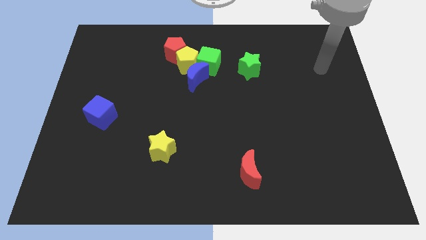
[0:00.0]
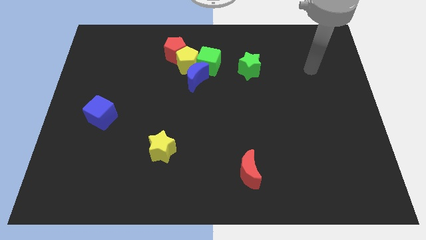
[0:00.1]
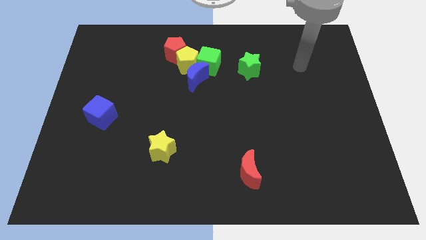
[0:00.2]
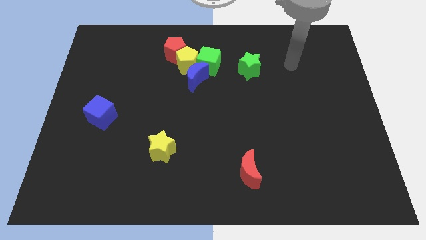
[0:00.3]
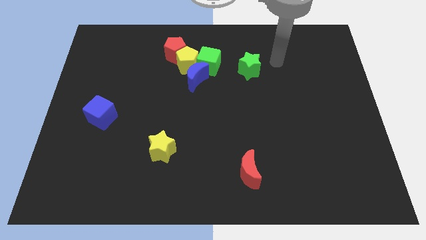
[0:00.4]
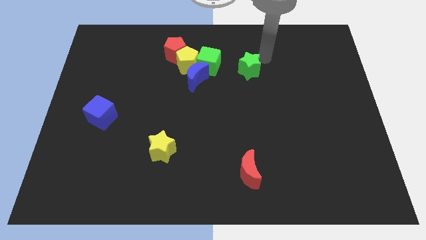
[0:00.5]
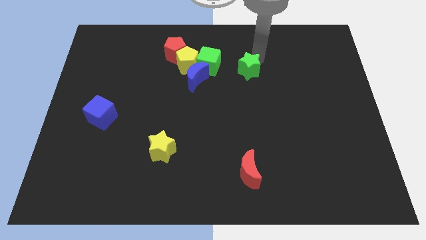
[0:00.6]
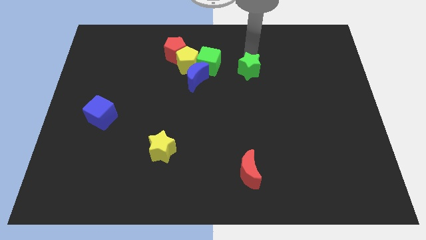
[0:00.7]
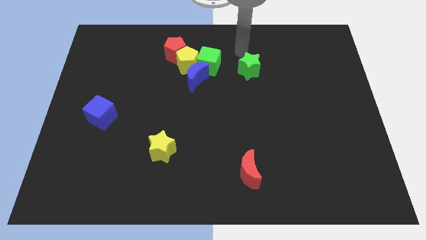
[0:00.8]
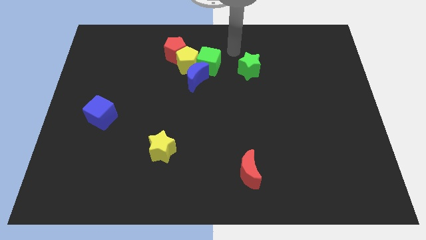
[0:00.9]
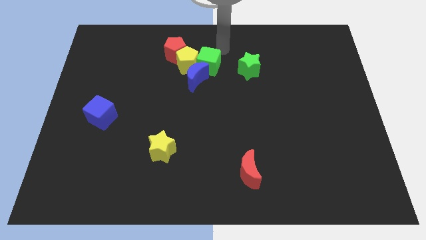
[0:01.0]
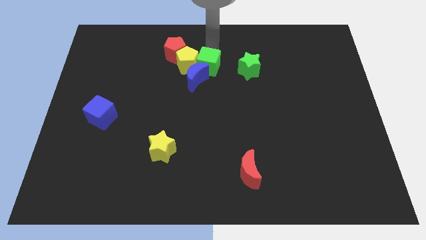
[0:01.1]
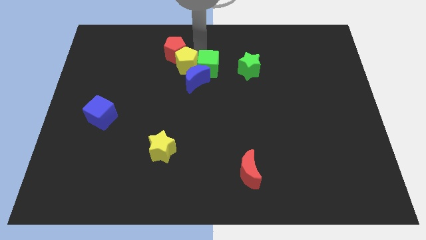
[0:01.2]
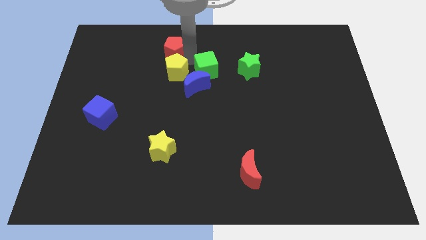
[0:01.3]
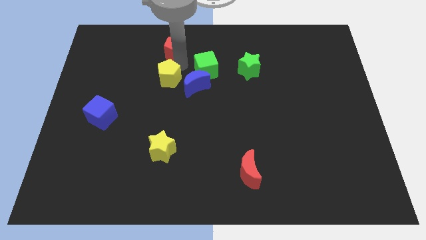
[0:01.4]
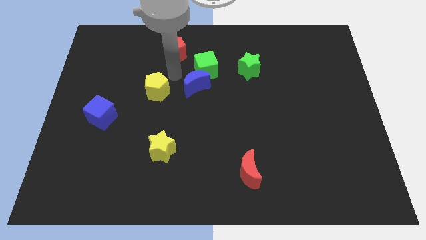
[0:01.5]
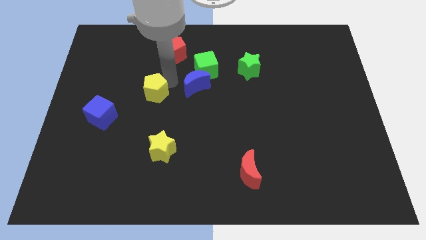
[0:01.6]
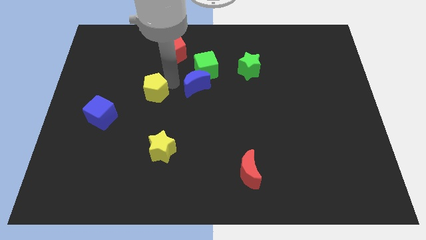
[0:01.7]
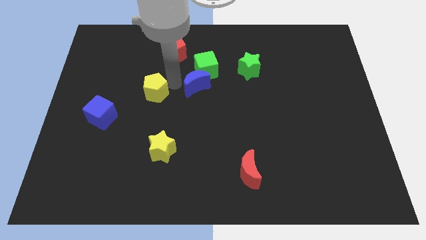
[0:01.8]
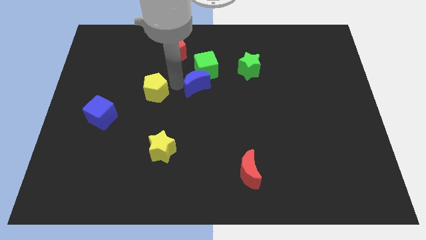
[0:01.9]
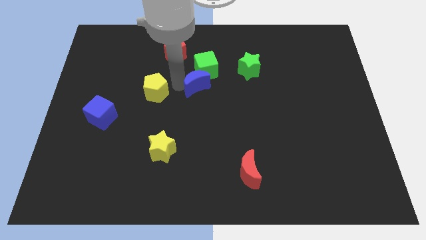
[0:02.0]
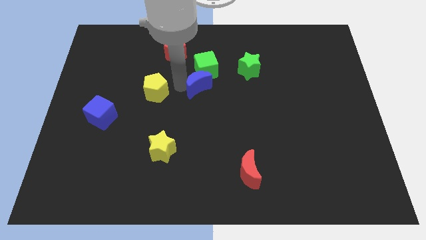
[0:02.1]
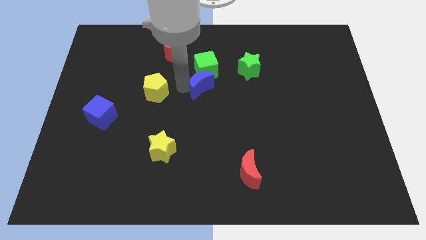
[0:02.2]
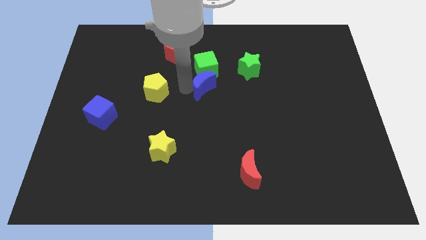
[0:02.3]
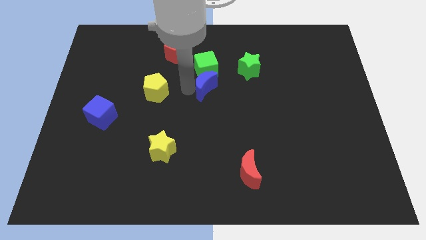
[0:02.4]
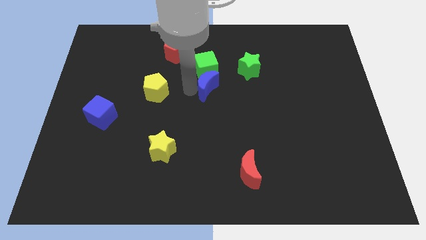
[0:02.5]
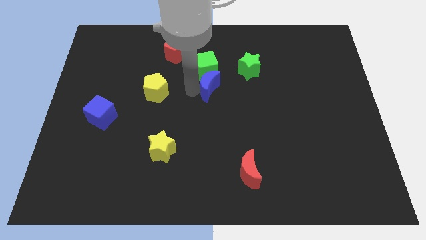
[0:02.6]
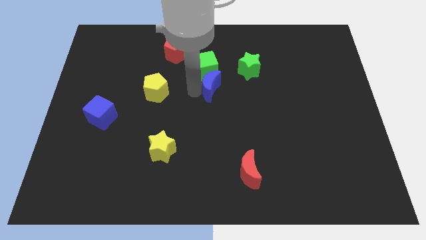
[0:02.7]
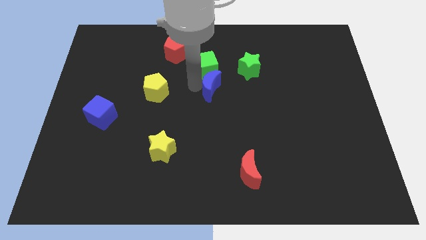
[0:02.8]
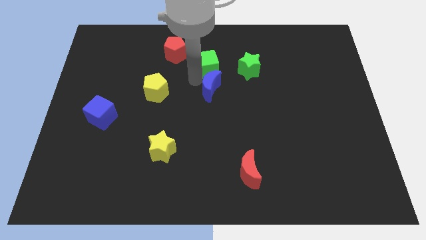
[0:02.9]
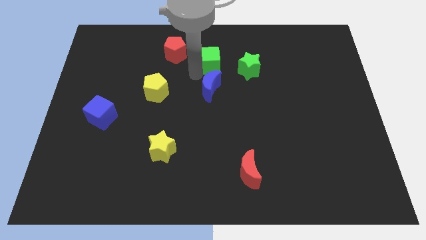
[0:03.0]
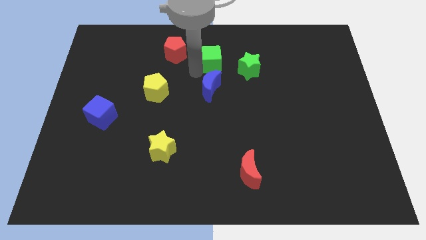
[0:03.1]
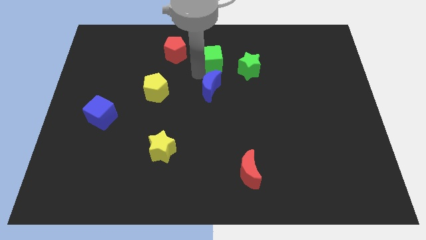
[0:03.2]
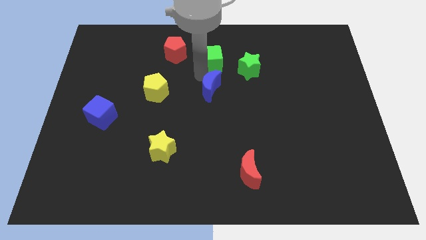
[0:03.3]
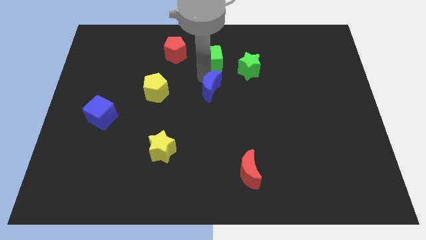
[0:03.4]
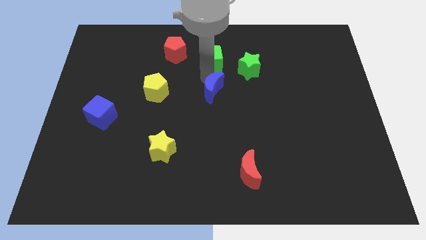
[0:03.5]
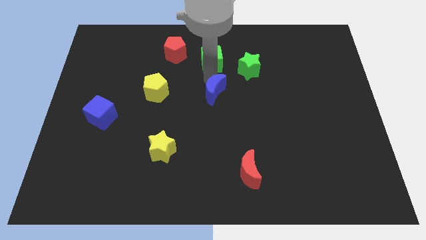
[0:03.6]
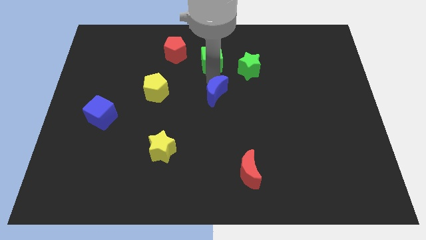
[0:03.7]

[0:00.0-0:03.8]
push the blue moon a little bit downwards and right diagonally

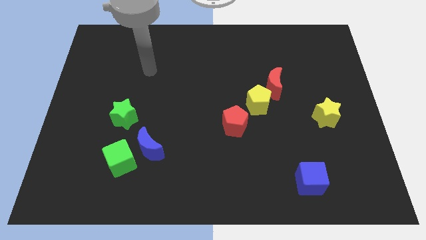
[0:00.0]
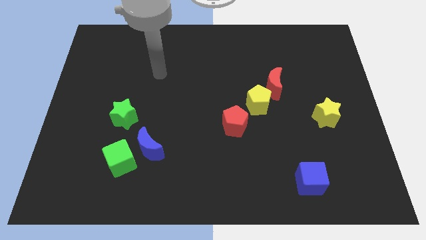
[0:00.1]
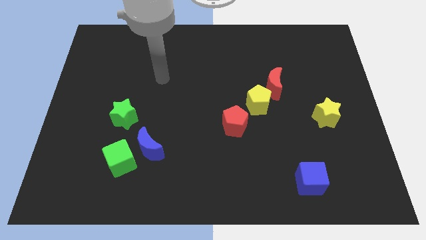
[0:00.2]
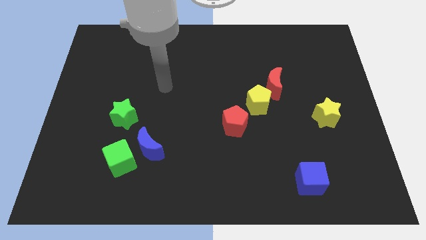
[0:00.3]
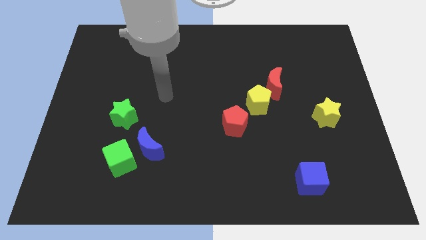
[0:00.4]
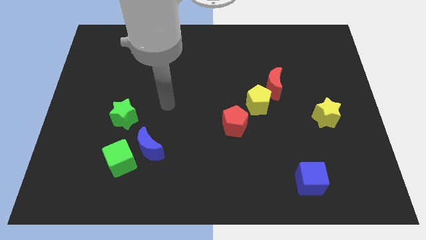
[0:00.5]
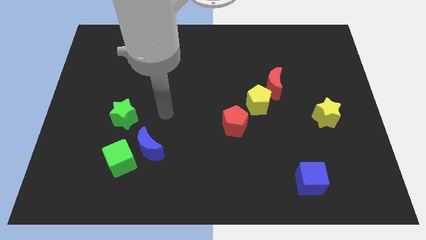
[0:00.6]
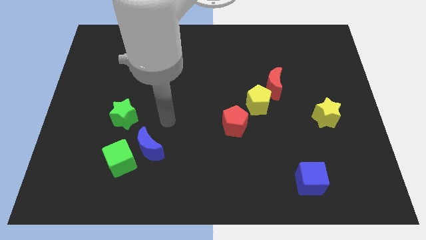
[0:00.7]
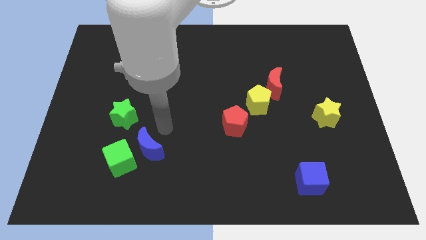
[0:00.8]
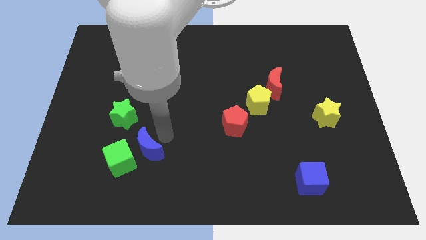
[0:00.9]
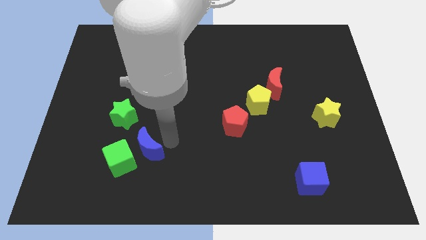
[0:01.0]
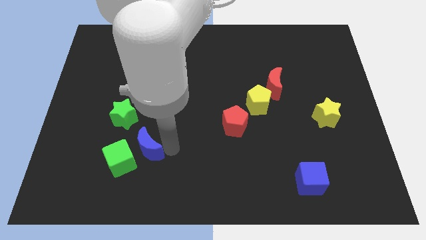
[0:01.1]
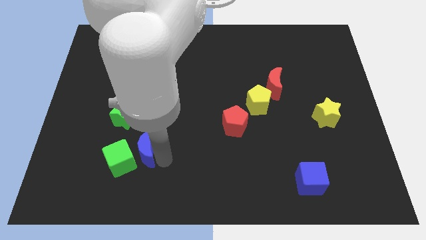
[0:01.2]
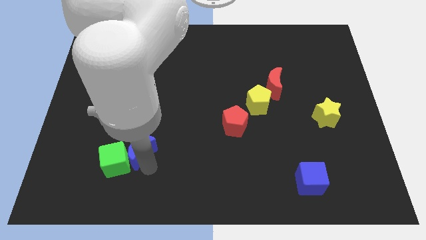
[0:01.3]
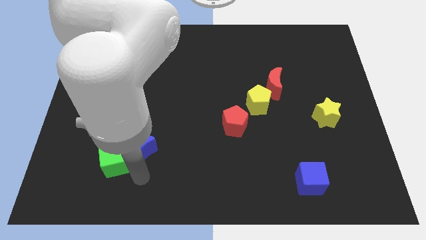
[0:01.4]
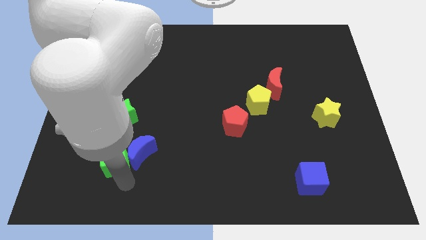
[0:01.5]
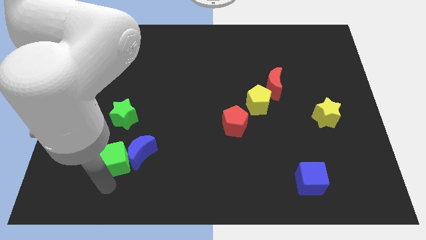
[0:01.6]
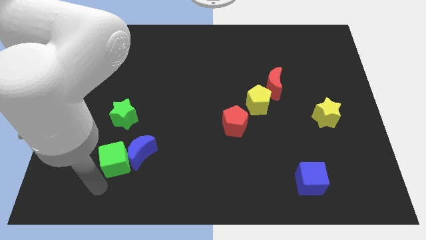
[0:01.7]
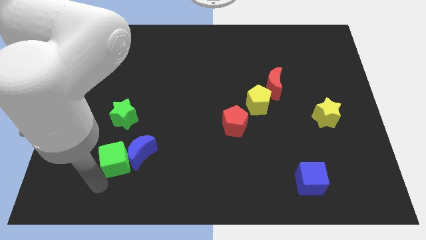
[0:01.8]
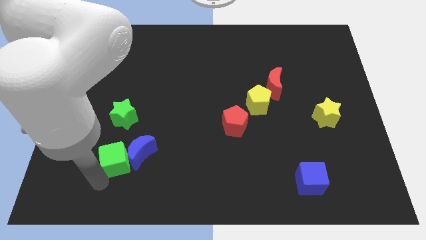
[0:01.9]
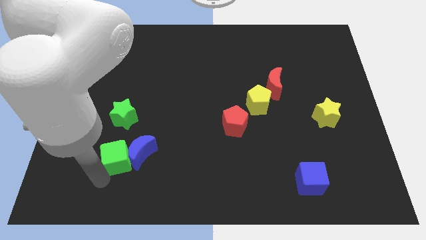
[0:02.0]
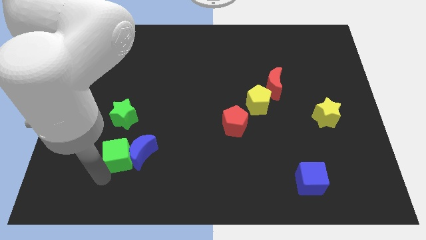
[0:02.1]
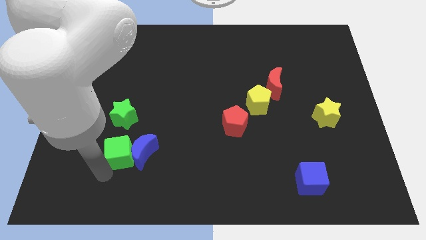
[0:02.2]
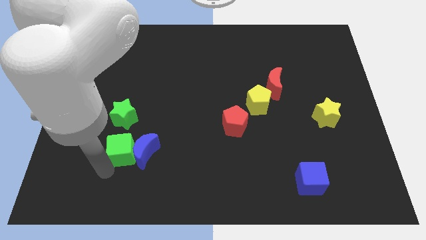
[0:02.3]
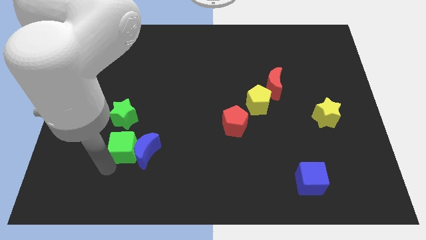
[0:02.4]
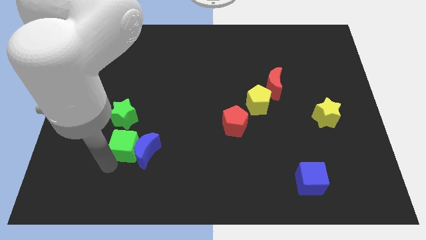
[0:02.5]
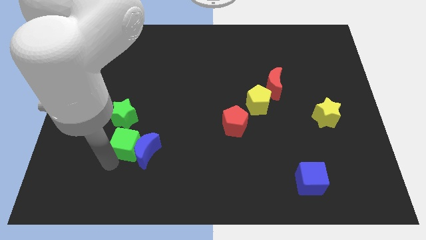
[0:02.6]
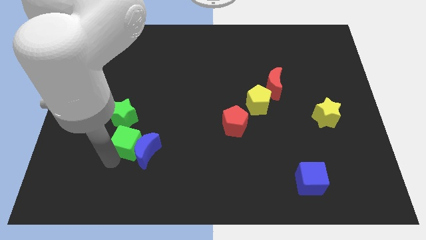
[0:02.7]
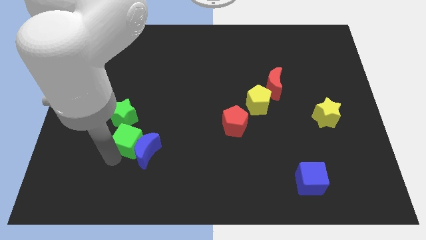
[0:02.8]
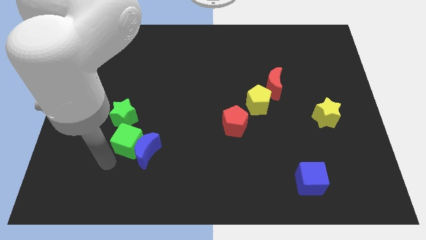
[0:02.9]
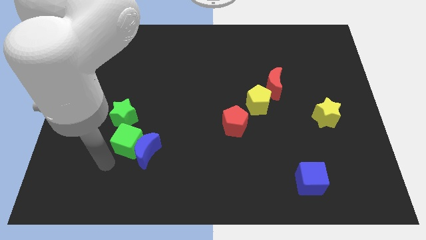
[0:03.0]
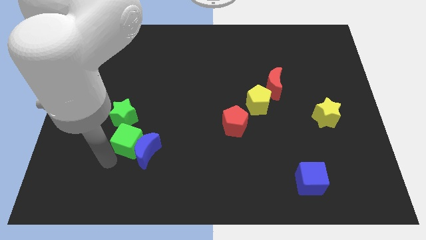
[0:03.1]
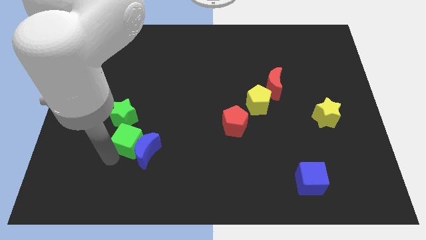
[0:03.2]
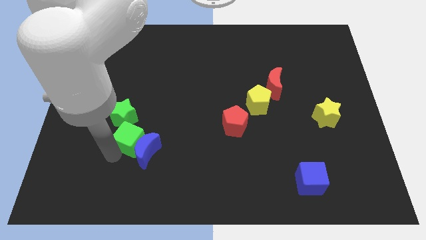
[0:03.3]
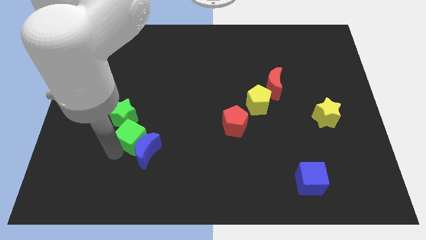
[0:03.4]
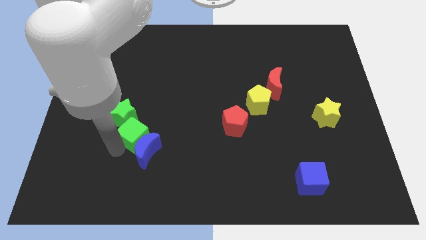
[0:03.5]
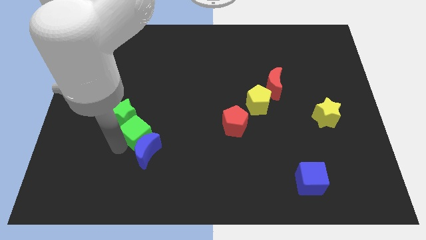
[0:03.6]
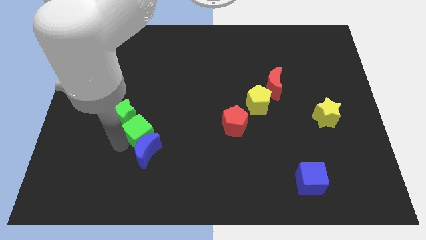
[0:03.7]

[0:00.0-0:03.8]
slide the green cube a bit up and to the right diagonally
